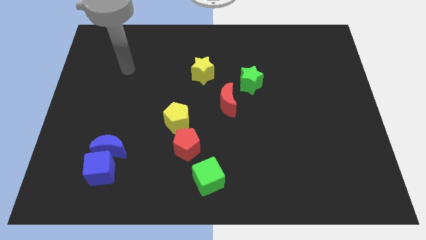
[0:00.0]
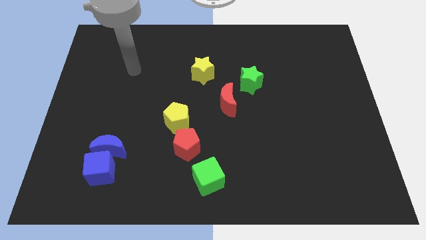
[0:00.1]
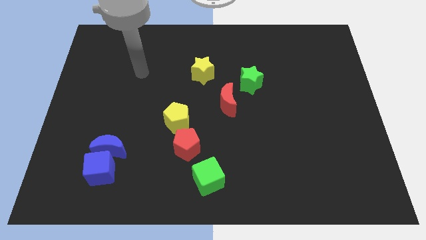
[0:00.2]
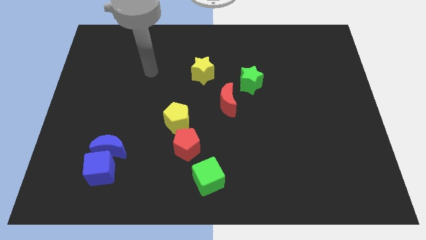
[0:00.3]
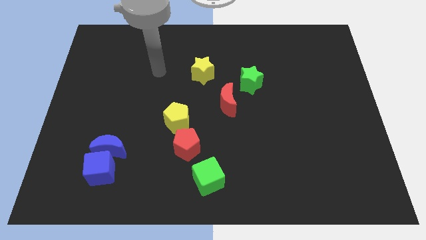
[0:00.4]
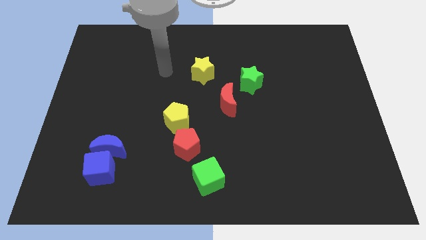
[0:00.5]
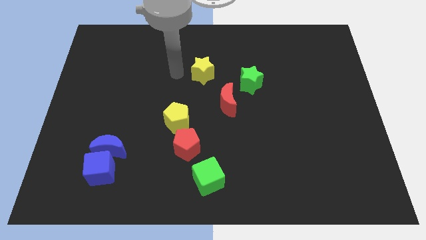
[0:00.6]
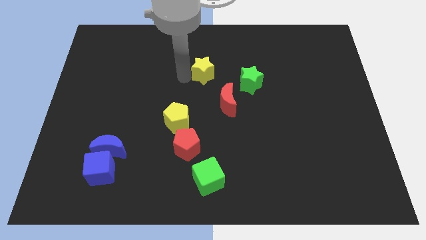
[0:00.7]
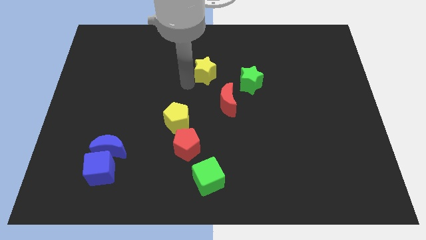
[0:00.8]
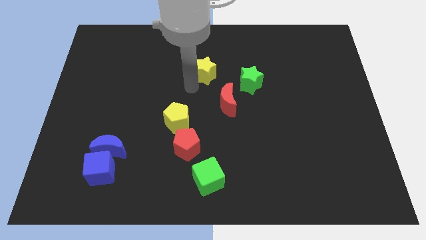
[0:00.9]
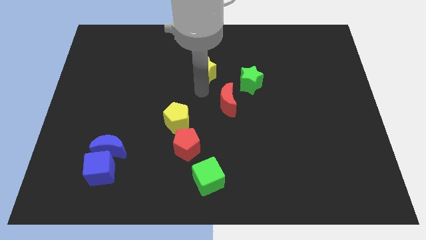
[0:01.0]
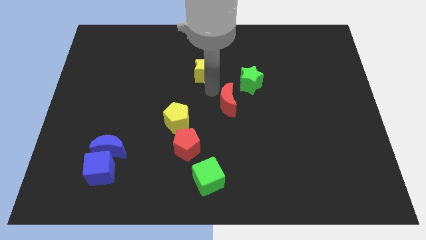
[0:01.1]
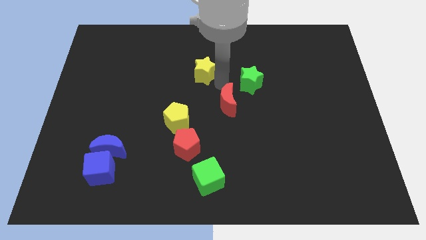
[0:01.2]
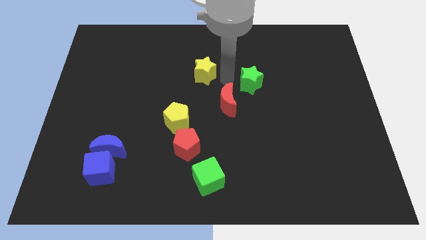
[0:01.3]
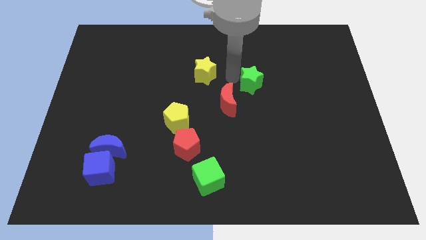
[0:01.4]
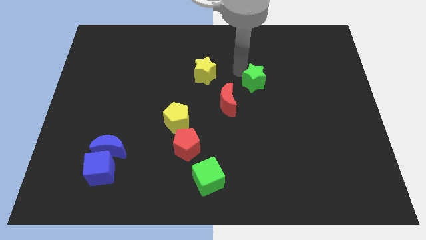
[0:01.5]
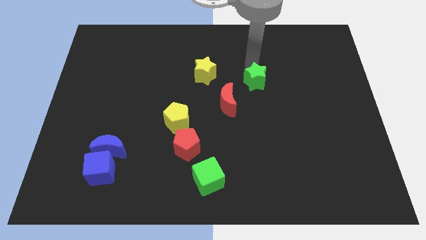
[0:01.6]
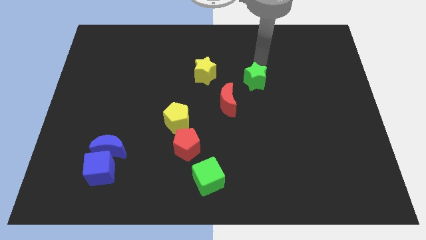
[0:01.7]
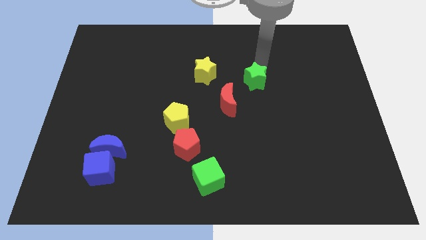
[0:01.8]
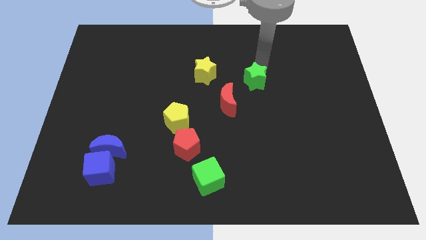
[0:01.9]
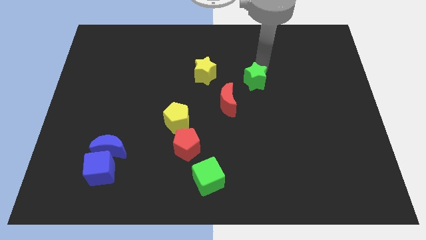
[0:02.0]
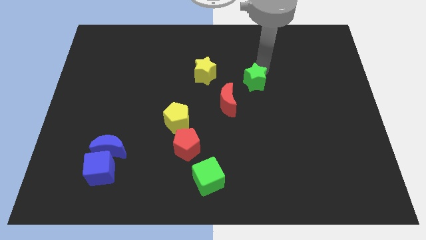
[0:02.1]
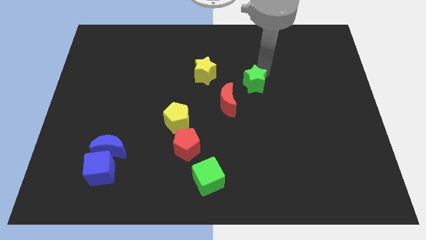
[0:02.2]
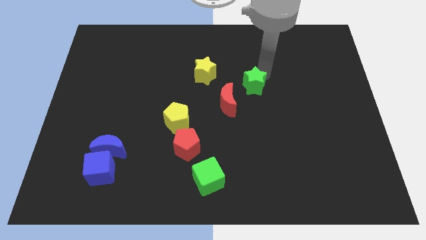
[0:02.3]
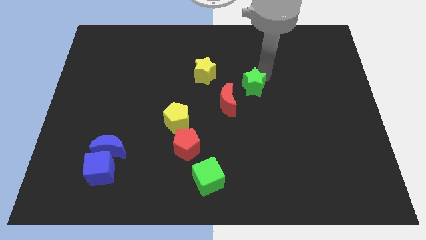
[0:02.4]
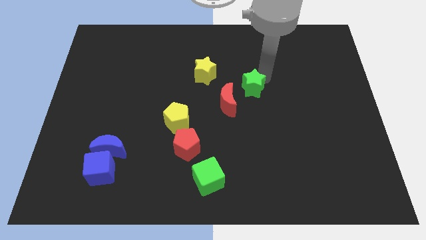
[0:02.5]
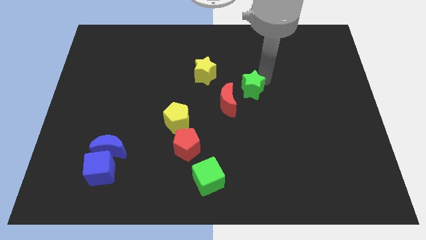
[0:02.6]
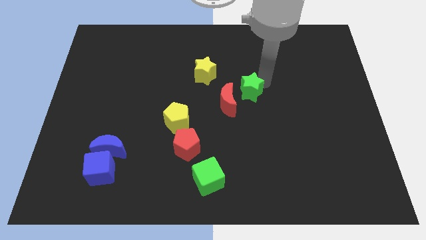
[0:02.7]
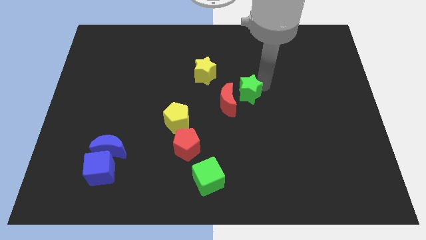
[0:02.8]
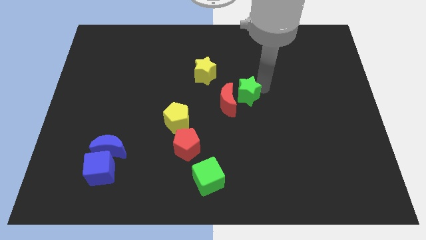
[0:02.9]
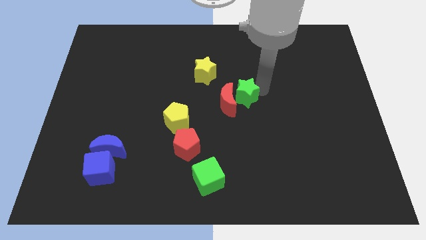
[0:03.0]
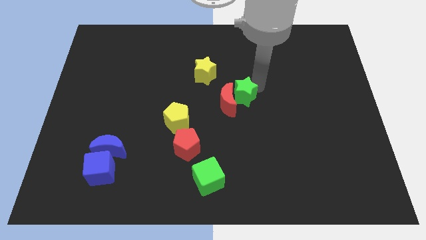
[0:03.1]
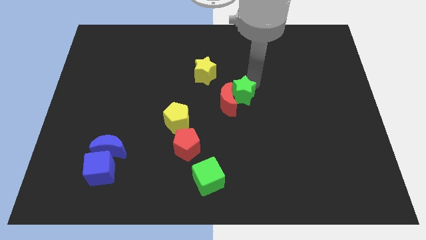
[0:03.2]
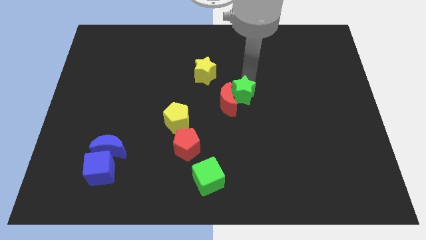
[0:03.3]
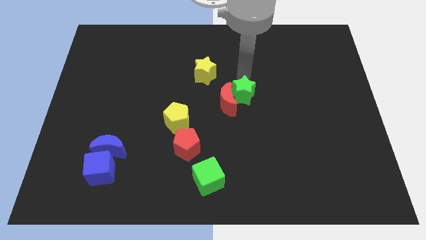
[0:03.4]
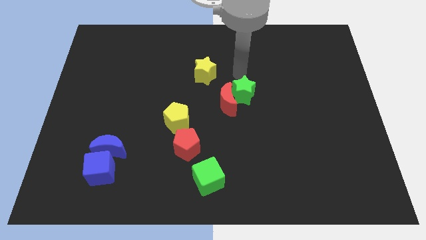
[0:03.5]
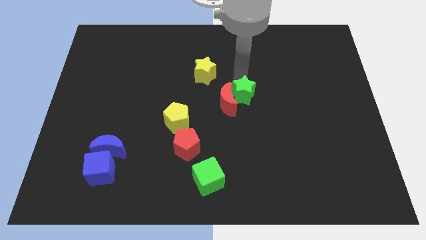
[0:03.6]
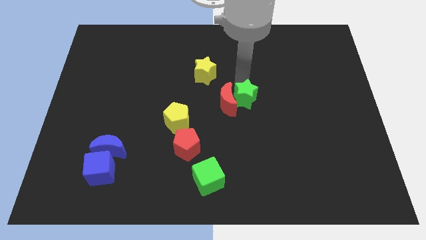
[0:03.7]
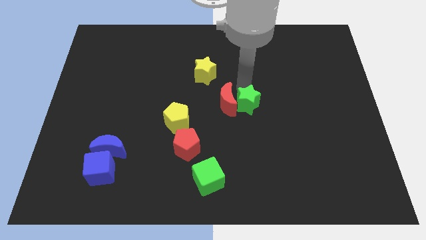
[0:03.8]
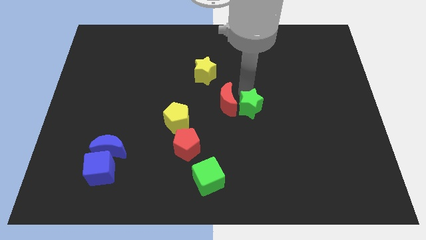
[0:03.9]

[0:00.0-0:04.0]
move the green star a little downwards

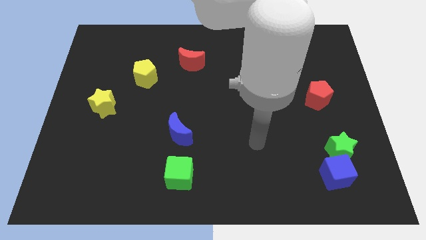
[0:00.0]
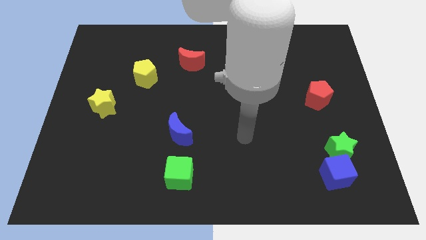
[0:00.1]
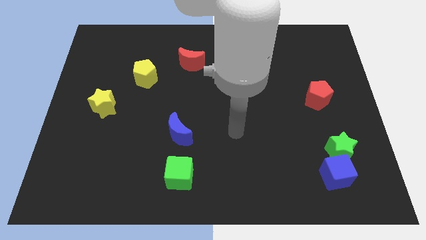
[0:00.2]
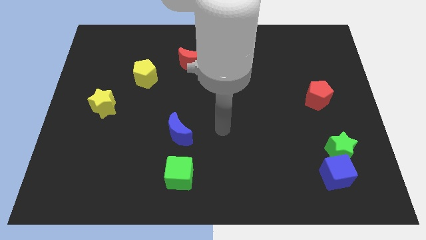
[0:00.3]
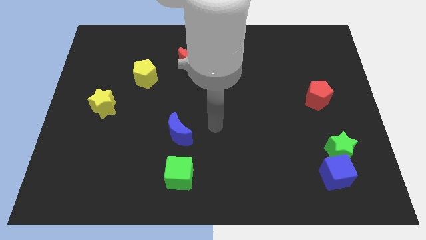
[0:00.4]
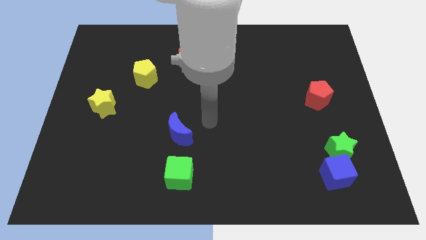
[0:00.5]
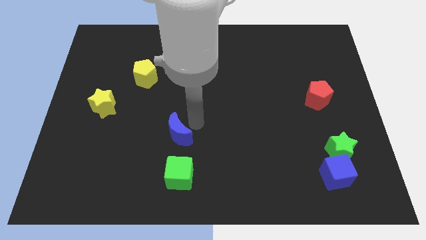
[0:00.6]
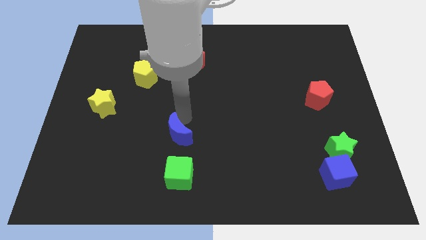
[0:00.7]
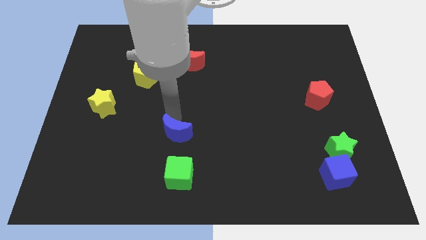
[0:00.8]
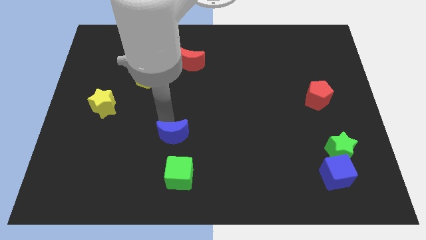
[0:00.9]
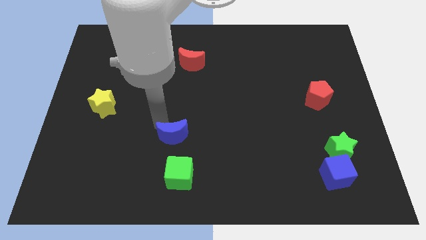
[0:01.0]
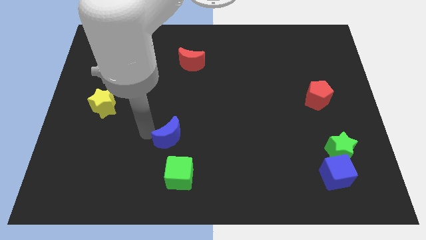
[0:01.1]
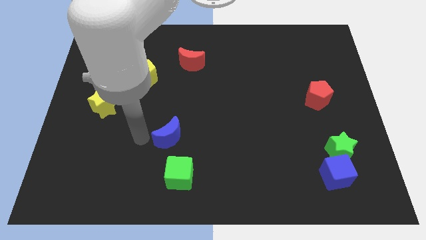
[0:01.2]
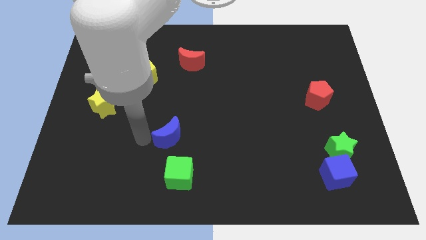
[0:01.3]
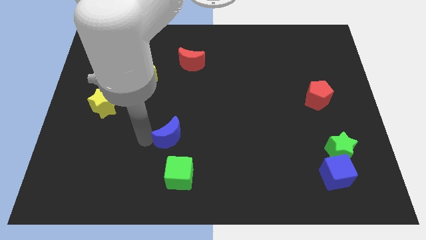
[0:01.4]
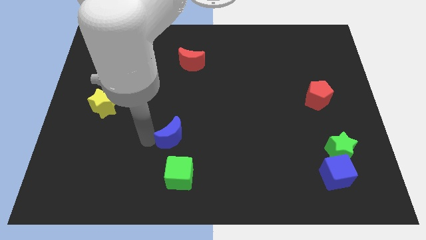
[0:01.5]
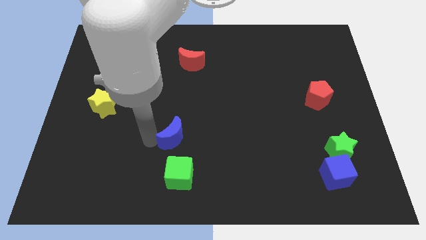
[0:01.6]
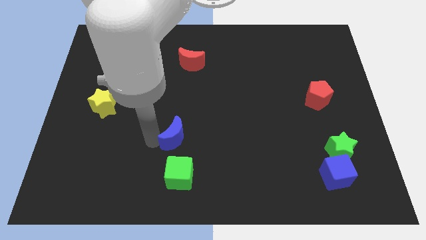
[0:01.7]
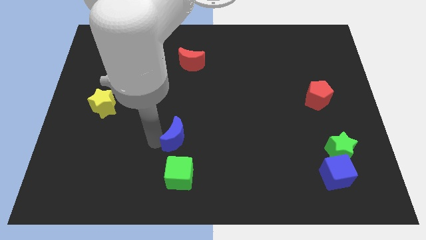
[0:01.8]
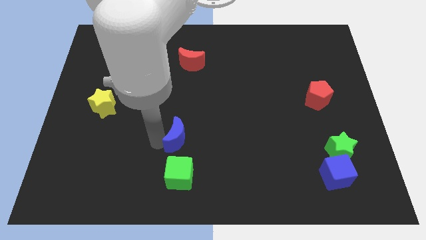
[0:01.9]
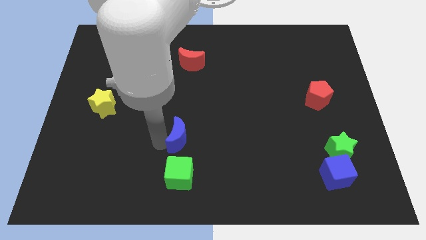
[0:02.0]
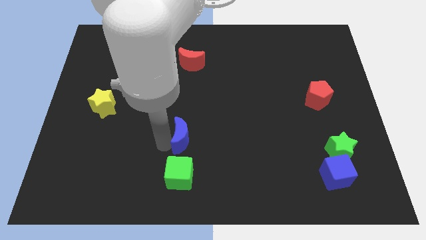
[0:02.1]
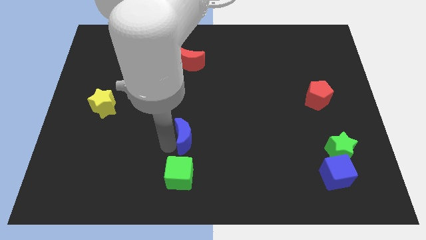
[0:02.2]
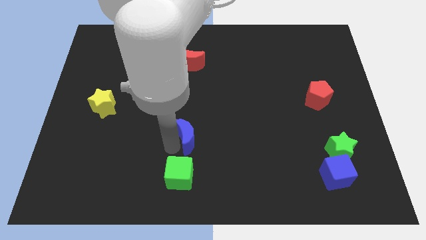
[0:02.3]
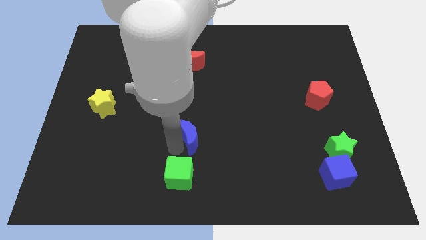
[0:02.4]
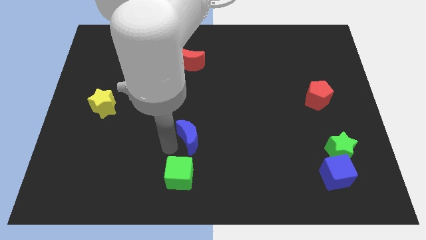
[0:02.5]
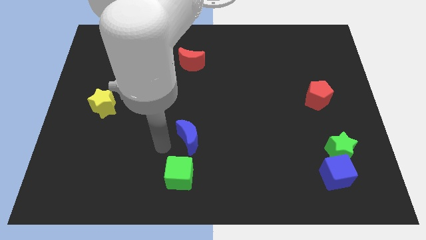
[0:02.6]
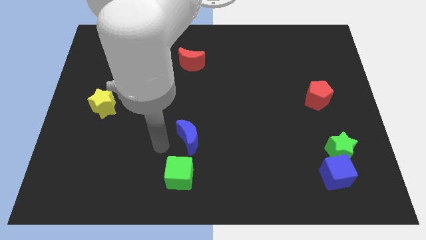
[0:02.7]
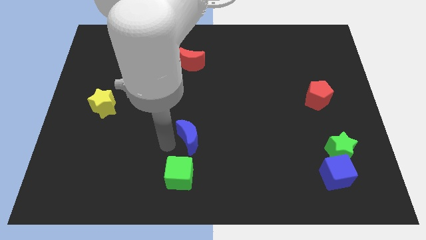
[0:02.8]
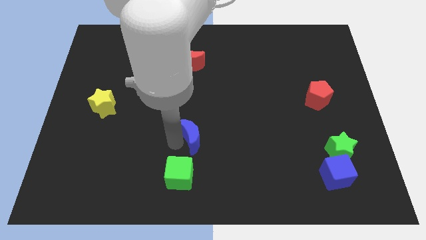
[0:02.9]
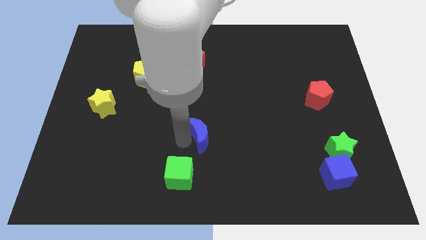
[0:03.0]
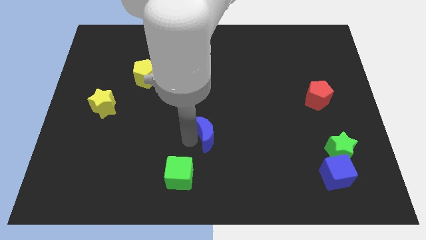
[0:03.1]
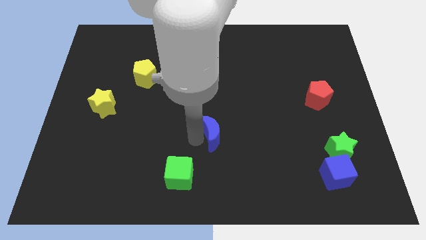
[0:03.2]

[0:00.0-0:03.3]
slightly push the blue moon right

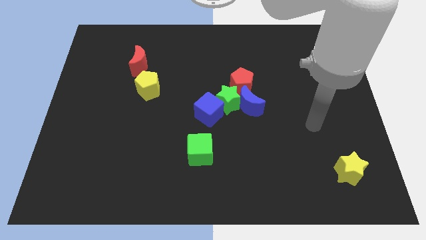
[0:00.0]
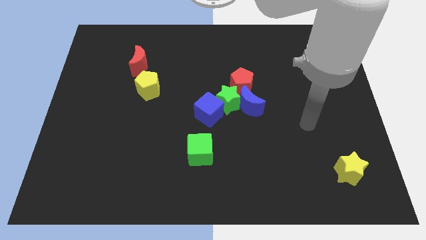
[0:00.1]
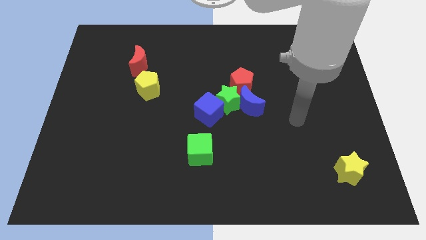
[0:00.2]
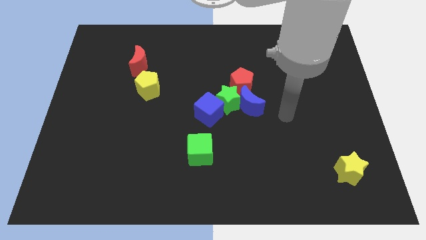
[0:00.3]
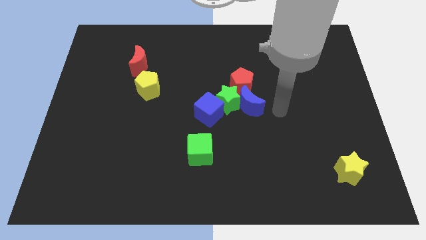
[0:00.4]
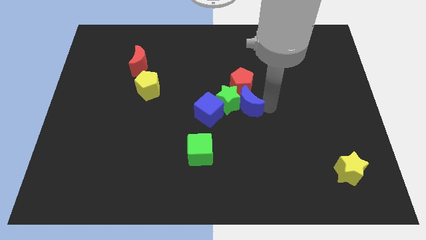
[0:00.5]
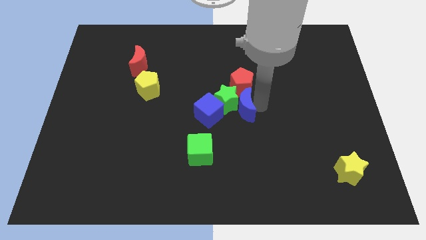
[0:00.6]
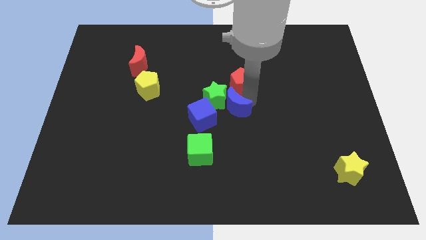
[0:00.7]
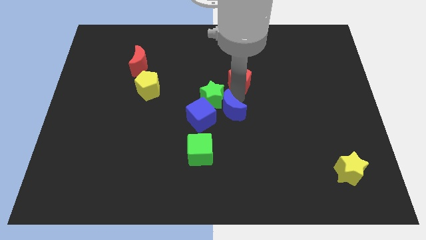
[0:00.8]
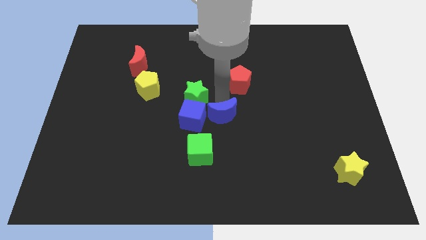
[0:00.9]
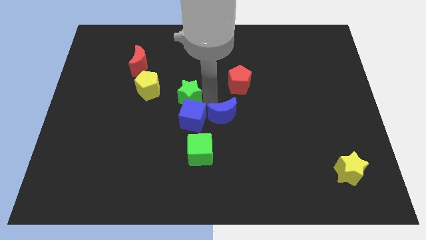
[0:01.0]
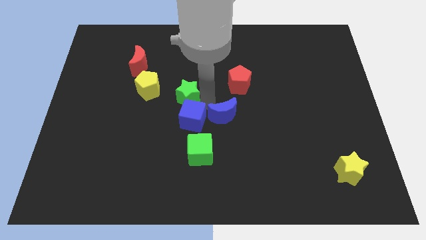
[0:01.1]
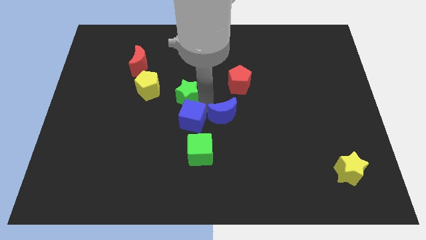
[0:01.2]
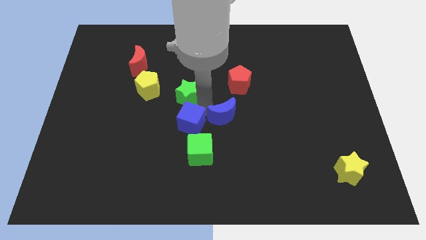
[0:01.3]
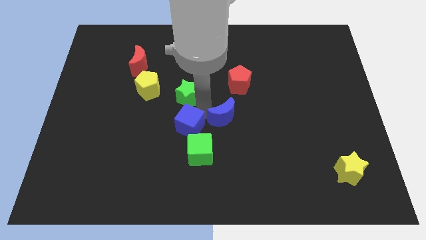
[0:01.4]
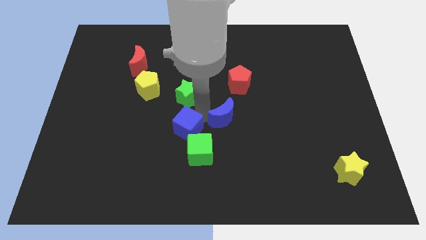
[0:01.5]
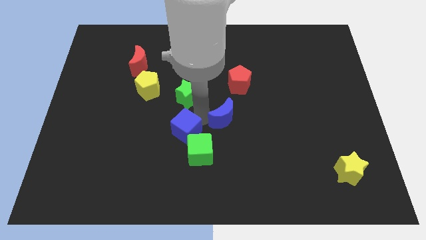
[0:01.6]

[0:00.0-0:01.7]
slide the blue cube diagonally downwards and to the left a bit
